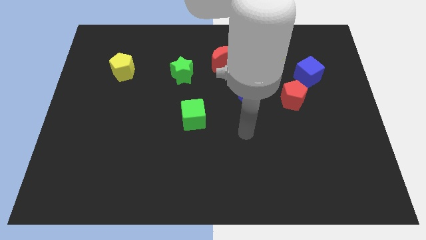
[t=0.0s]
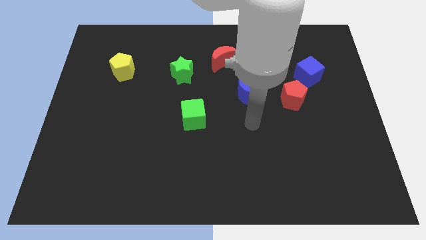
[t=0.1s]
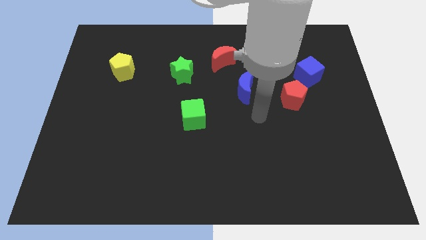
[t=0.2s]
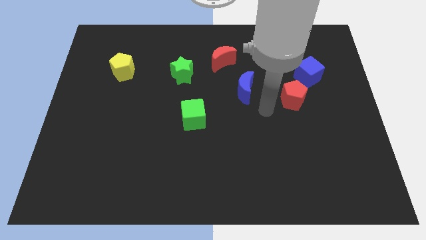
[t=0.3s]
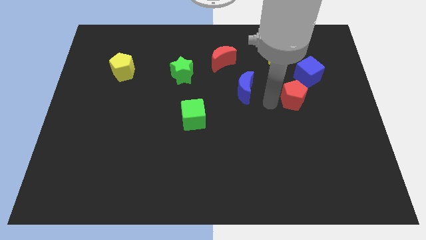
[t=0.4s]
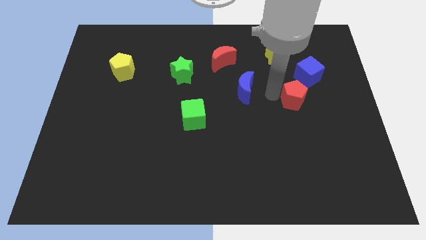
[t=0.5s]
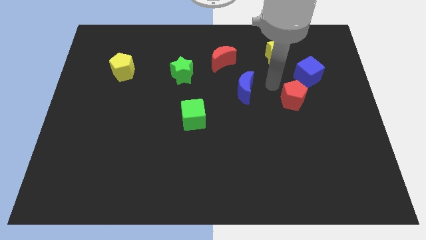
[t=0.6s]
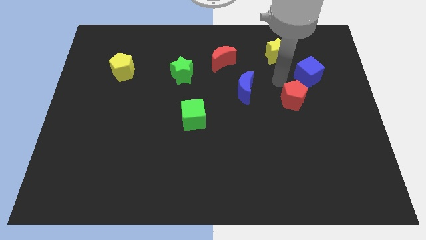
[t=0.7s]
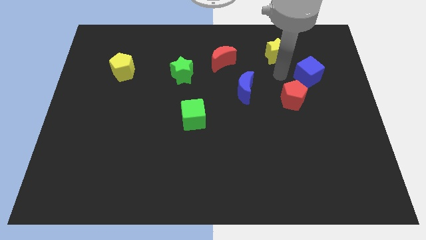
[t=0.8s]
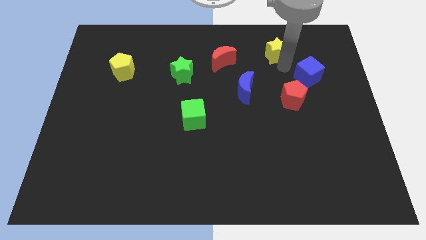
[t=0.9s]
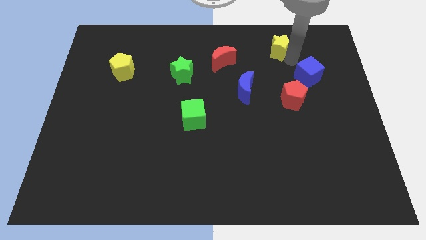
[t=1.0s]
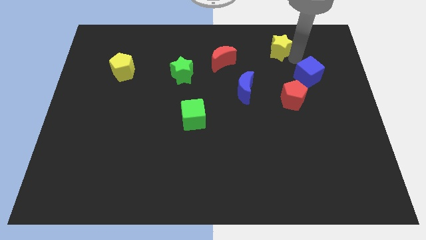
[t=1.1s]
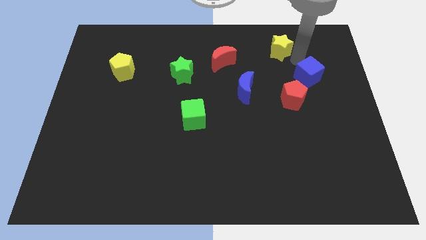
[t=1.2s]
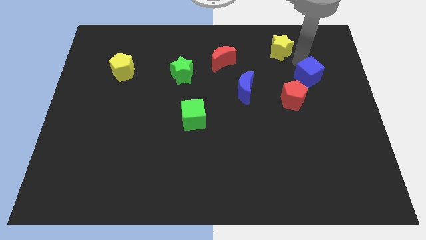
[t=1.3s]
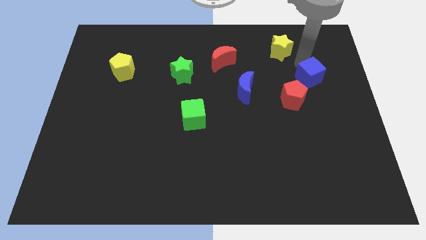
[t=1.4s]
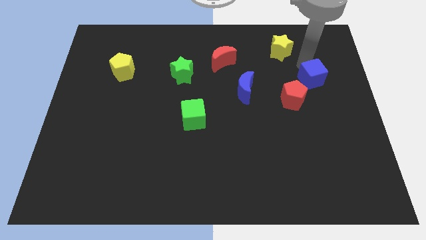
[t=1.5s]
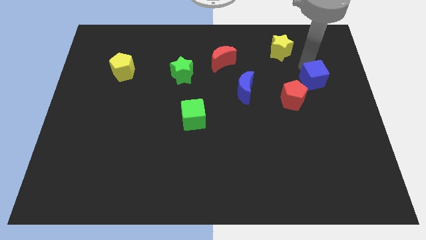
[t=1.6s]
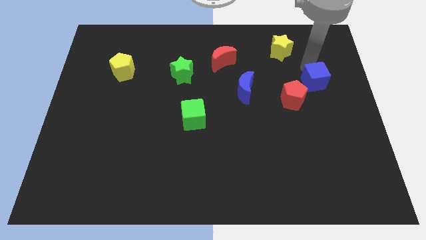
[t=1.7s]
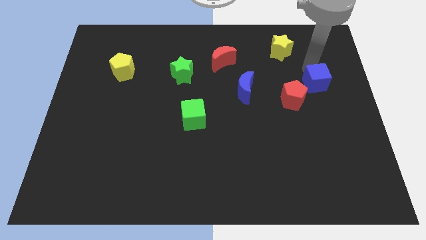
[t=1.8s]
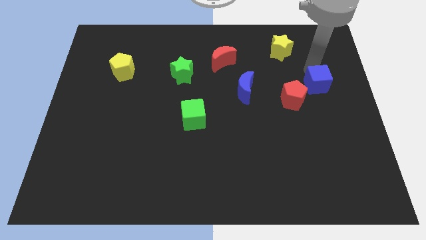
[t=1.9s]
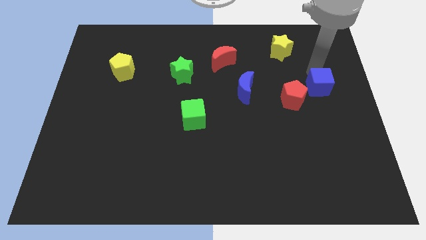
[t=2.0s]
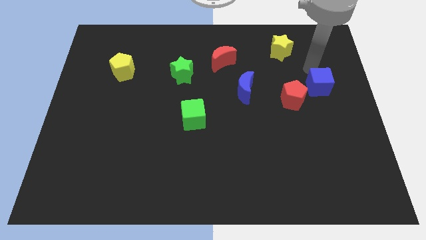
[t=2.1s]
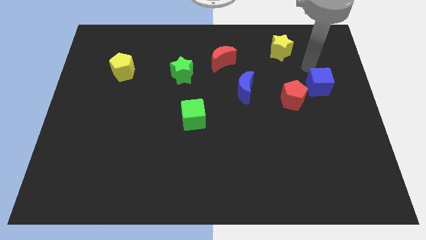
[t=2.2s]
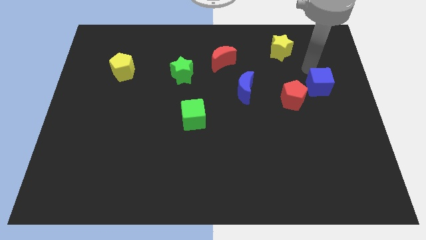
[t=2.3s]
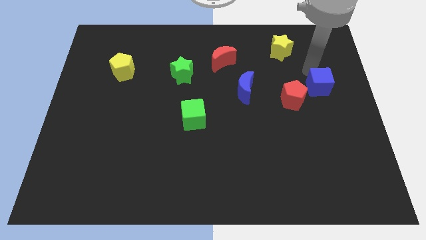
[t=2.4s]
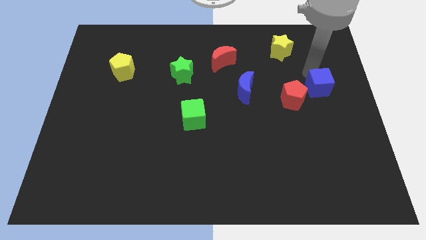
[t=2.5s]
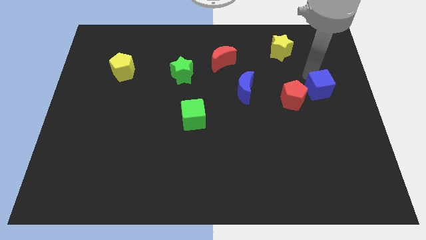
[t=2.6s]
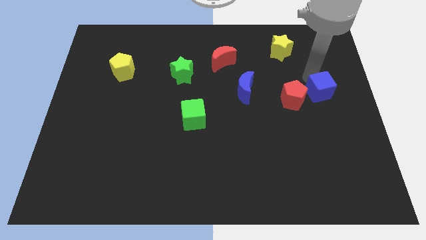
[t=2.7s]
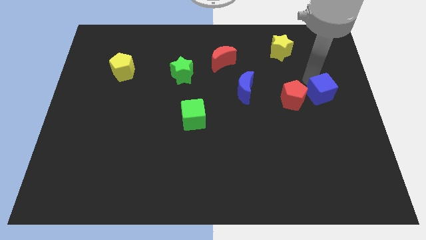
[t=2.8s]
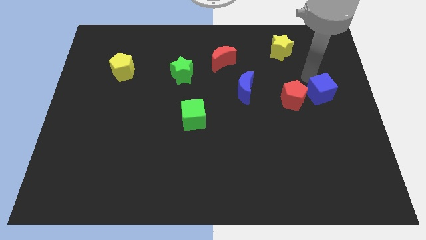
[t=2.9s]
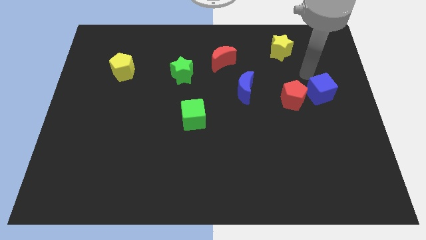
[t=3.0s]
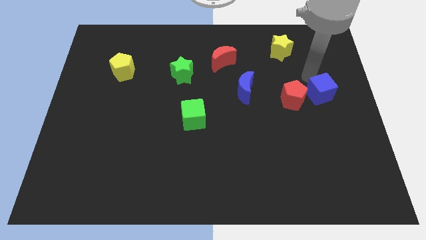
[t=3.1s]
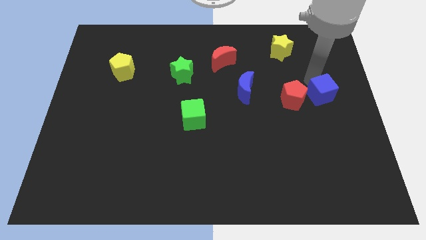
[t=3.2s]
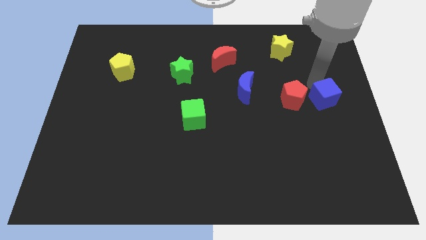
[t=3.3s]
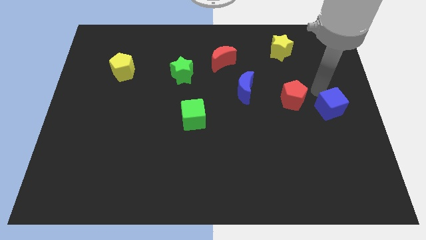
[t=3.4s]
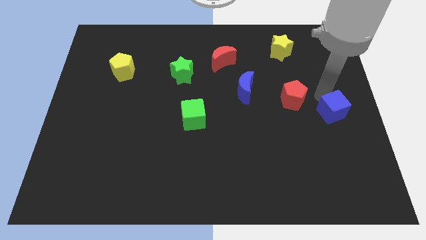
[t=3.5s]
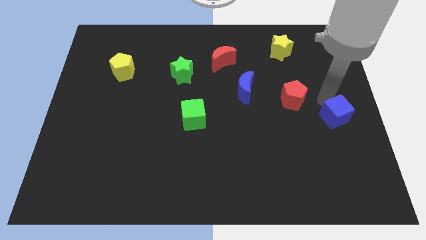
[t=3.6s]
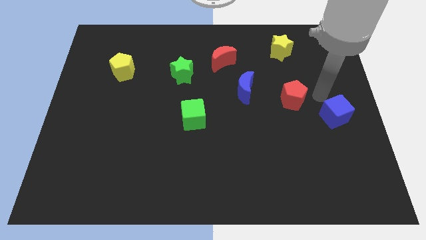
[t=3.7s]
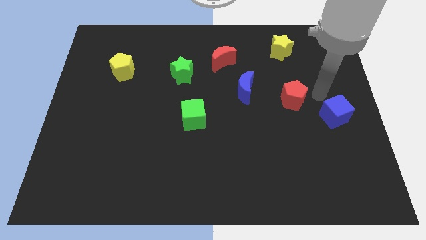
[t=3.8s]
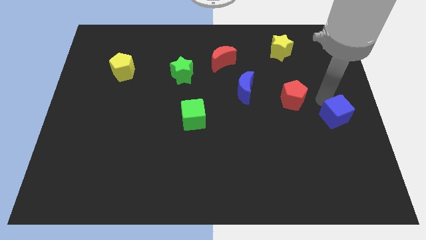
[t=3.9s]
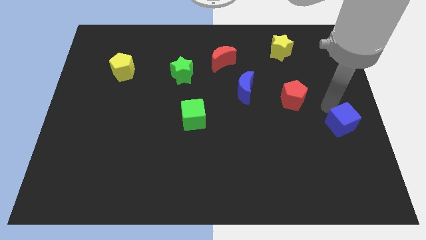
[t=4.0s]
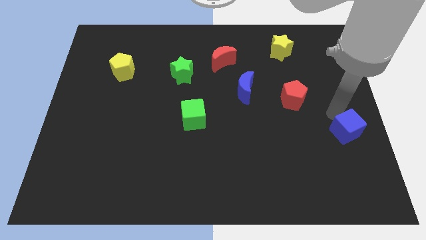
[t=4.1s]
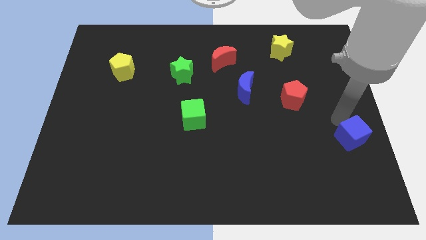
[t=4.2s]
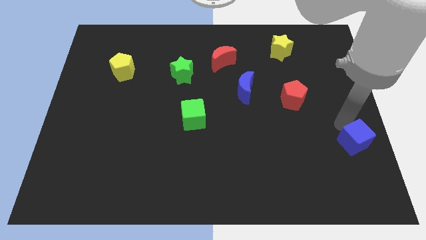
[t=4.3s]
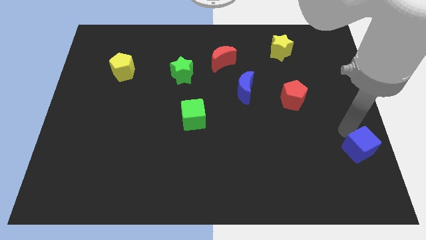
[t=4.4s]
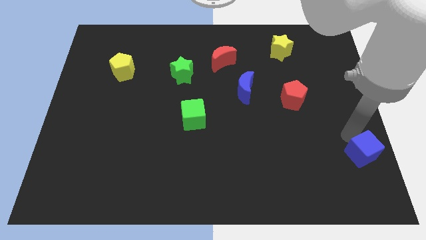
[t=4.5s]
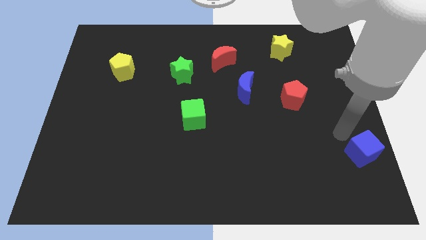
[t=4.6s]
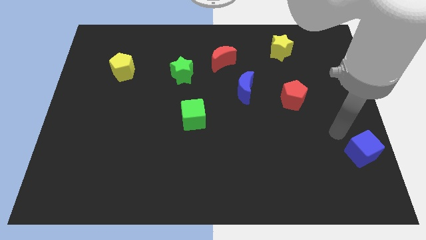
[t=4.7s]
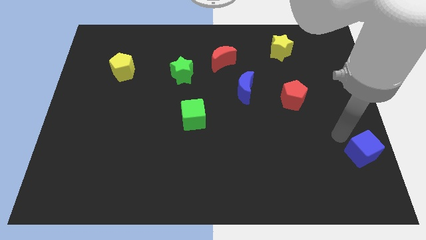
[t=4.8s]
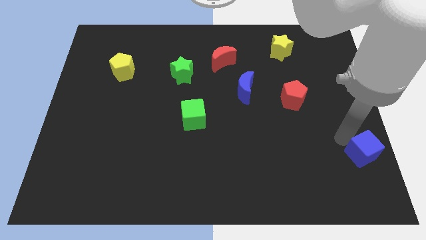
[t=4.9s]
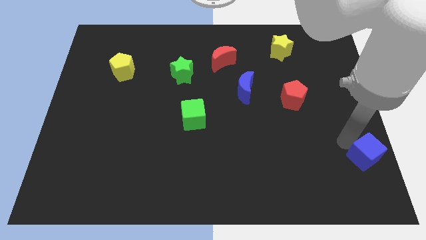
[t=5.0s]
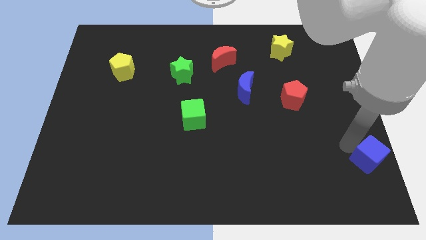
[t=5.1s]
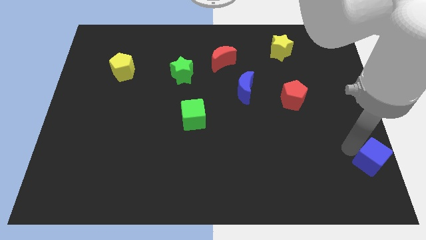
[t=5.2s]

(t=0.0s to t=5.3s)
put the blue cube to the bottom right of the board

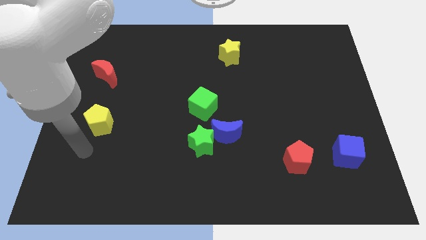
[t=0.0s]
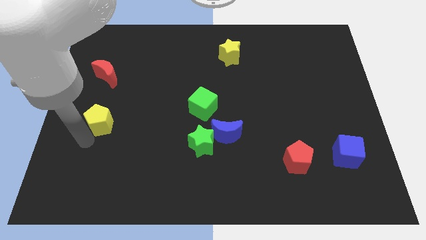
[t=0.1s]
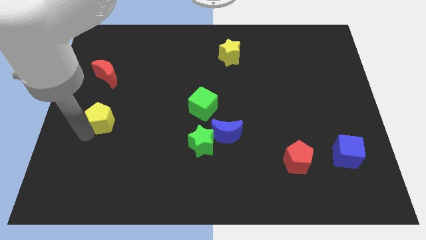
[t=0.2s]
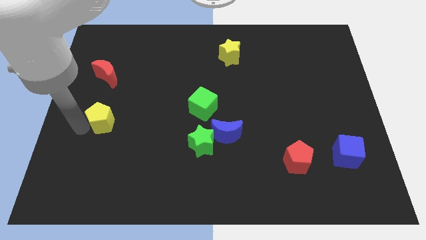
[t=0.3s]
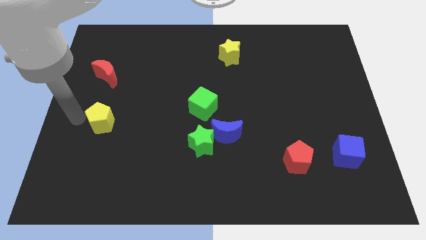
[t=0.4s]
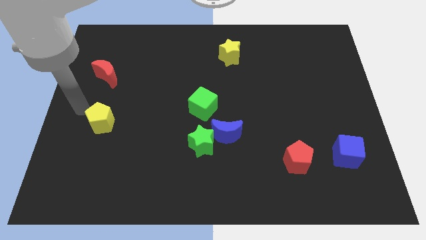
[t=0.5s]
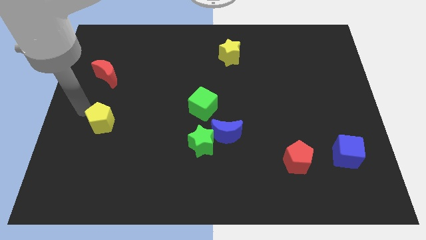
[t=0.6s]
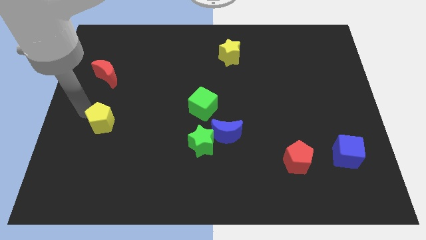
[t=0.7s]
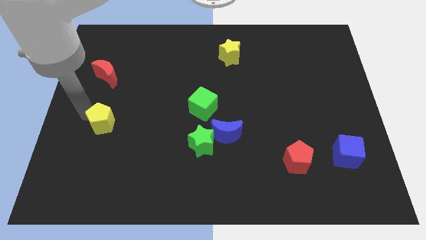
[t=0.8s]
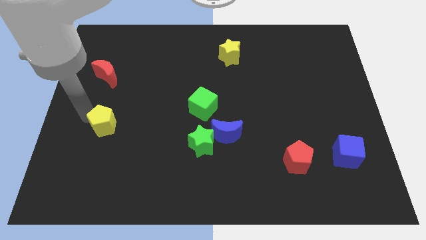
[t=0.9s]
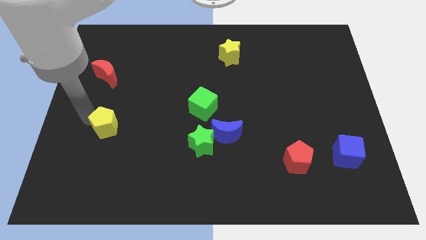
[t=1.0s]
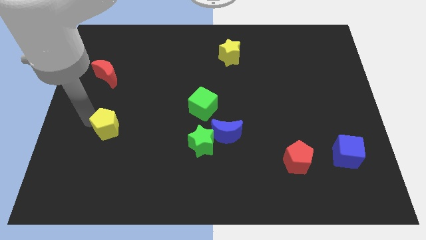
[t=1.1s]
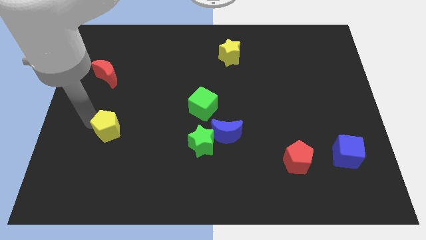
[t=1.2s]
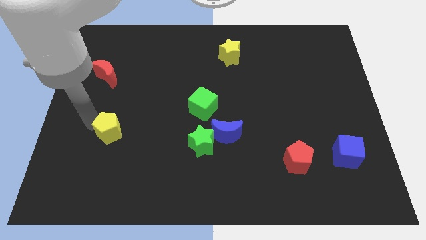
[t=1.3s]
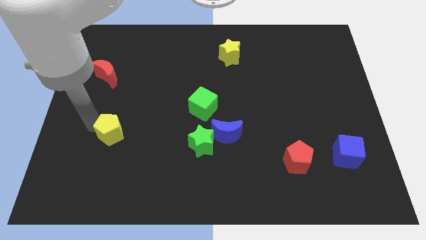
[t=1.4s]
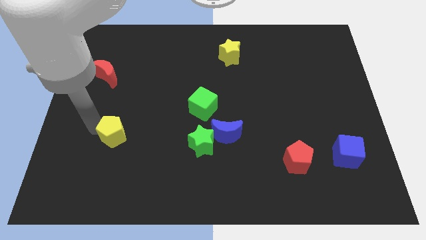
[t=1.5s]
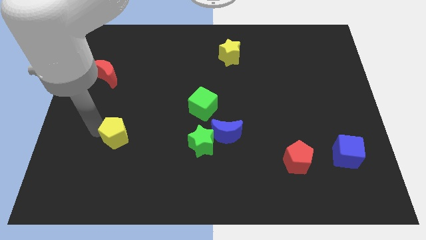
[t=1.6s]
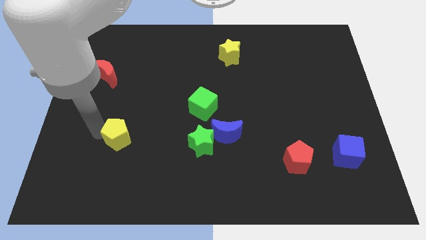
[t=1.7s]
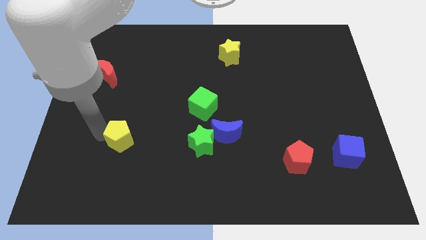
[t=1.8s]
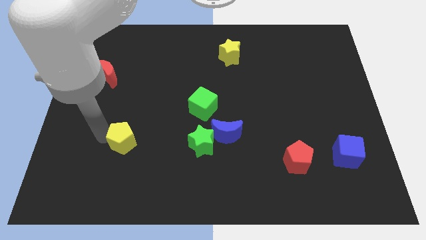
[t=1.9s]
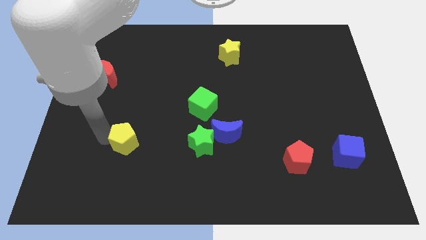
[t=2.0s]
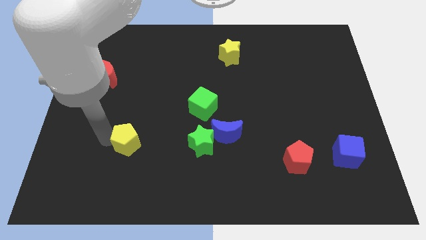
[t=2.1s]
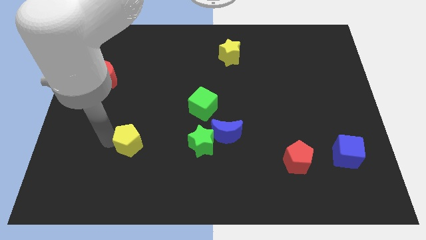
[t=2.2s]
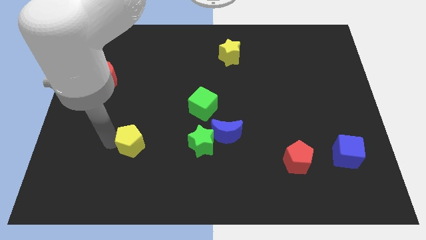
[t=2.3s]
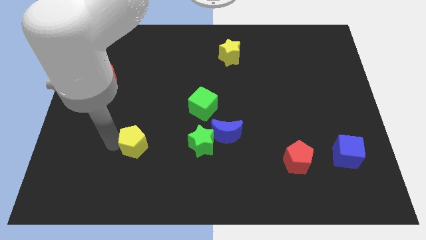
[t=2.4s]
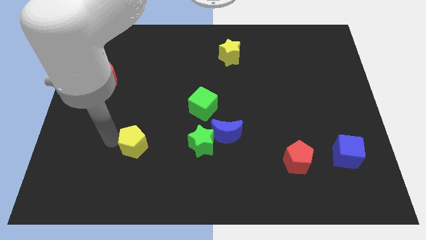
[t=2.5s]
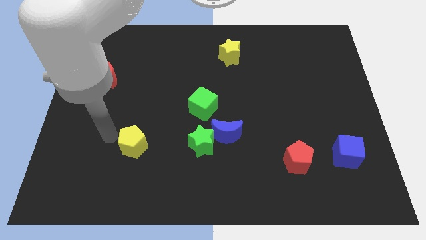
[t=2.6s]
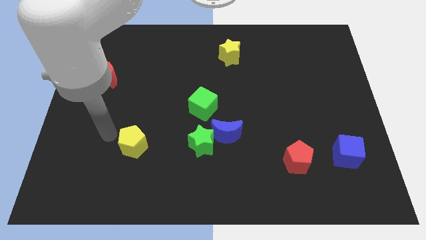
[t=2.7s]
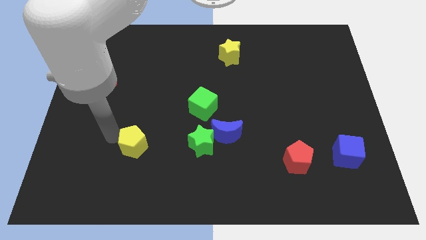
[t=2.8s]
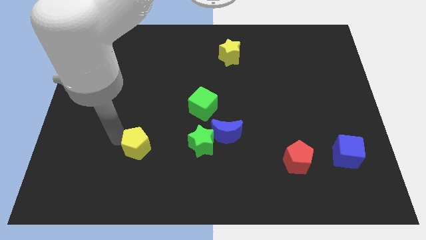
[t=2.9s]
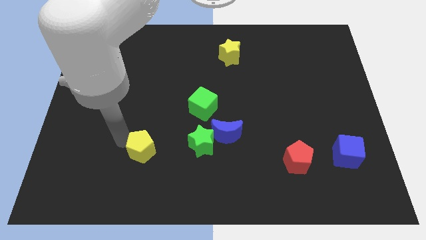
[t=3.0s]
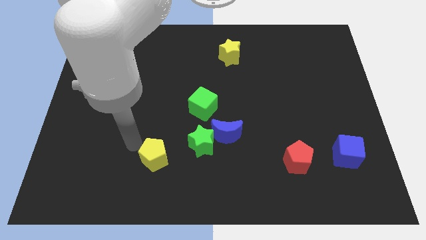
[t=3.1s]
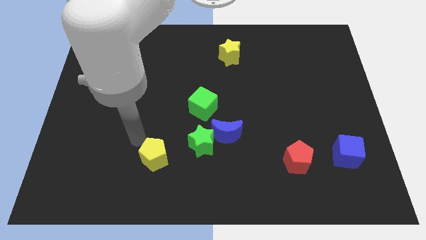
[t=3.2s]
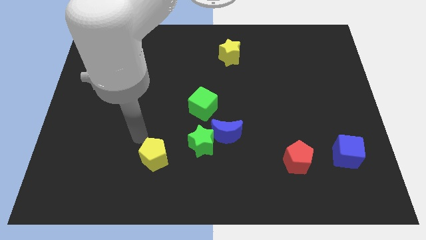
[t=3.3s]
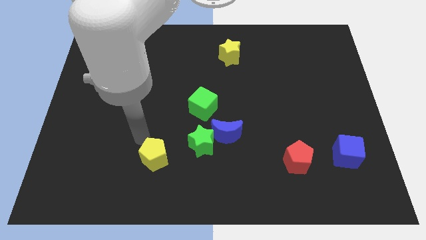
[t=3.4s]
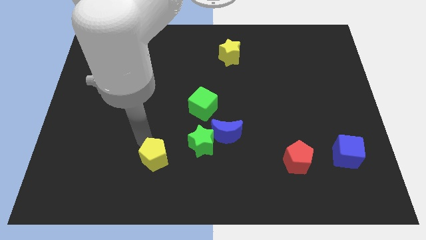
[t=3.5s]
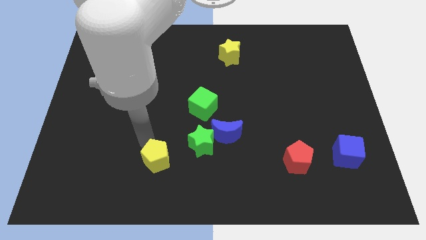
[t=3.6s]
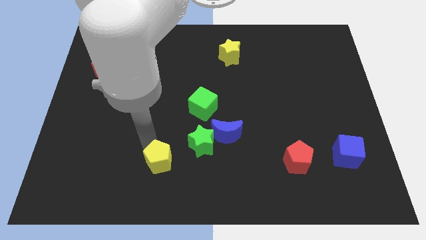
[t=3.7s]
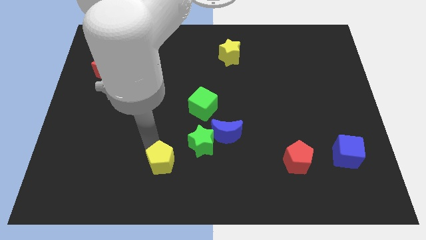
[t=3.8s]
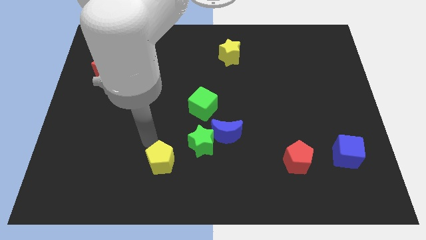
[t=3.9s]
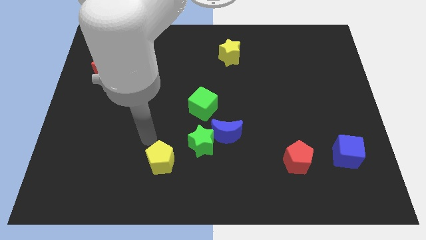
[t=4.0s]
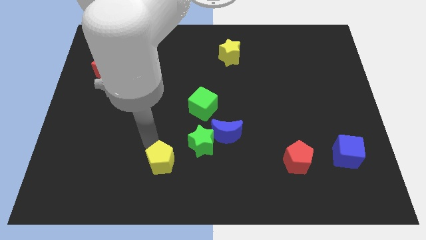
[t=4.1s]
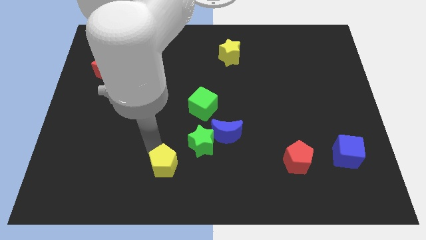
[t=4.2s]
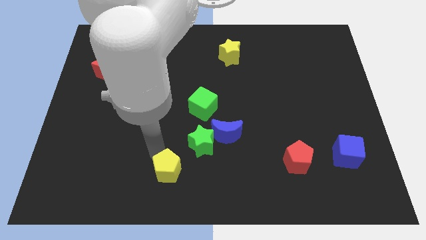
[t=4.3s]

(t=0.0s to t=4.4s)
slide the yellow pentagon to the bottom
